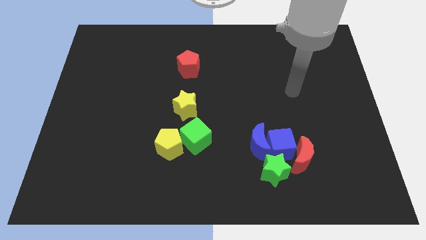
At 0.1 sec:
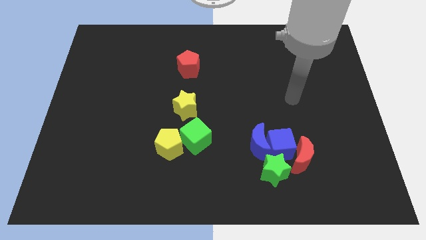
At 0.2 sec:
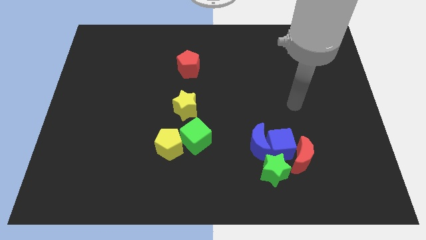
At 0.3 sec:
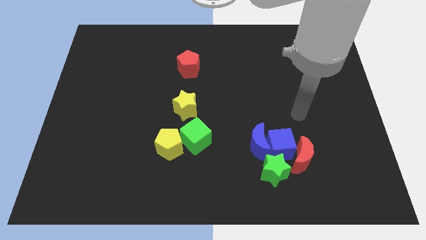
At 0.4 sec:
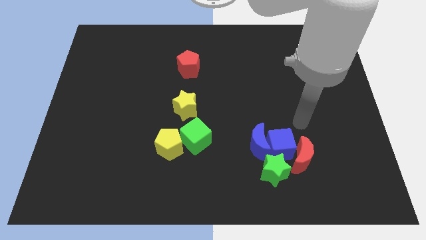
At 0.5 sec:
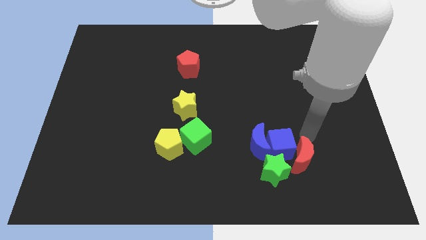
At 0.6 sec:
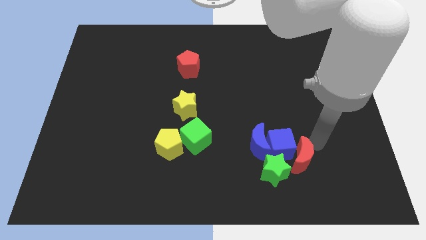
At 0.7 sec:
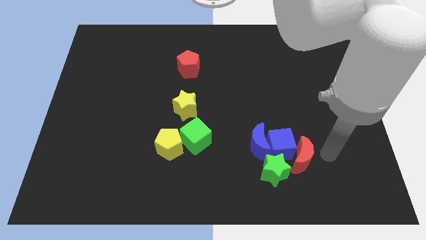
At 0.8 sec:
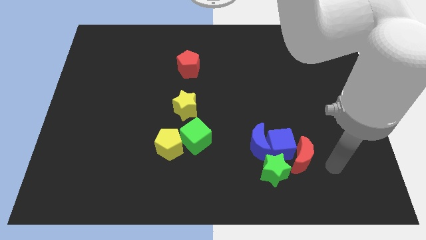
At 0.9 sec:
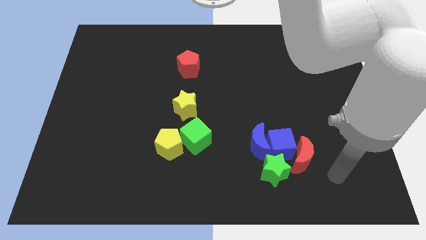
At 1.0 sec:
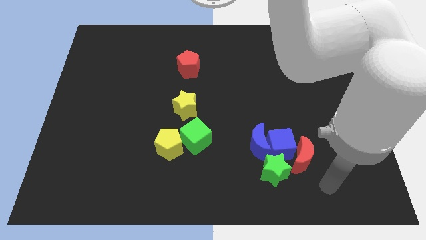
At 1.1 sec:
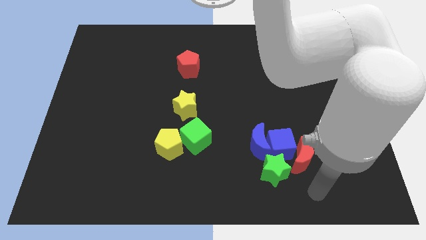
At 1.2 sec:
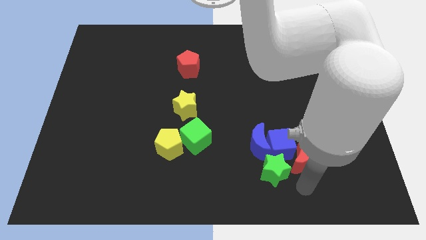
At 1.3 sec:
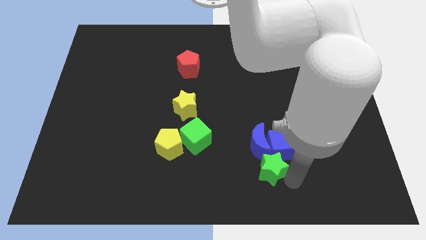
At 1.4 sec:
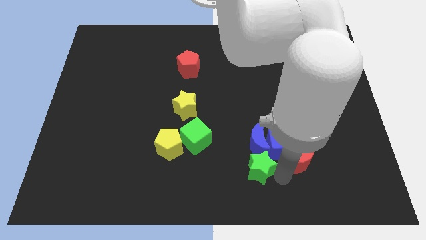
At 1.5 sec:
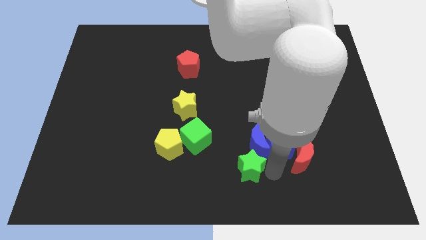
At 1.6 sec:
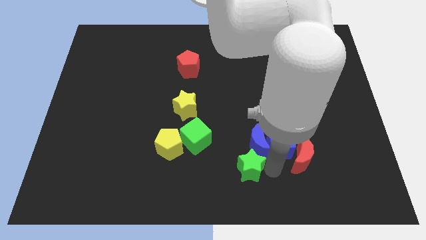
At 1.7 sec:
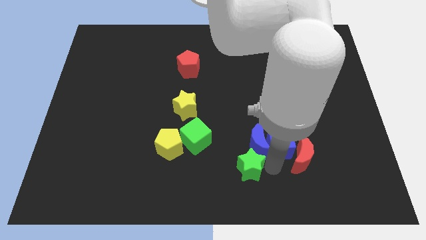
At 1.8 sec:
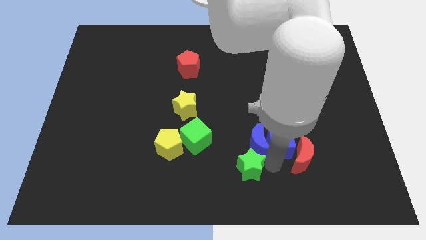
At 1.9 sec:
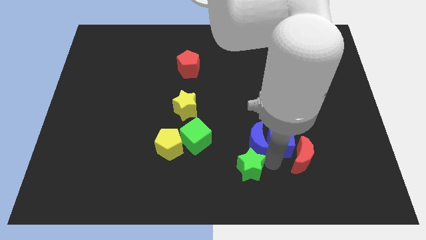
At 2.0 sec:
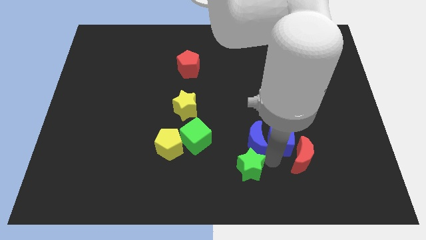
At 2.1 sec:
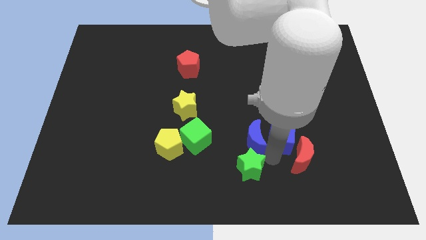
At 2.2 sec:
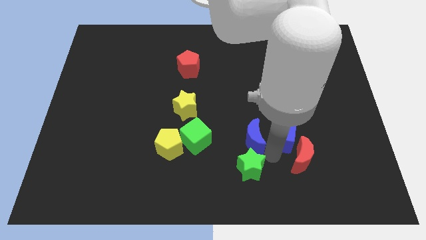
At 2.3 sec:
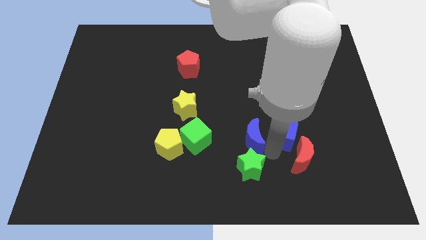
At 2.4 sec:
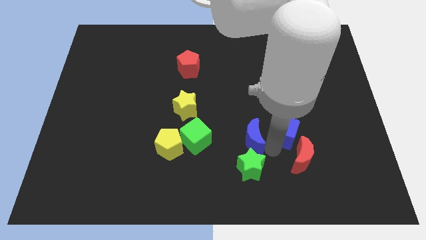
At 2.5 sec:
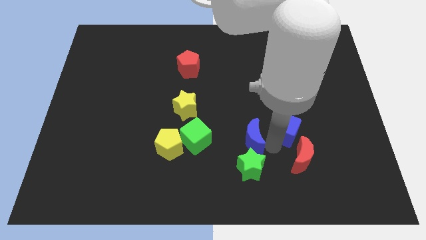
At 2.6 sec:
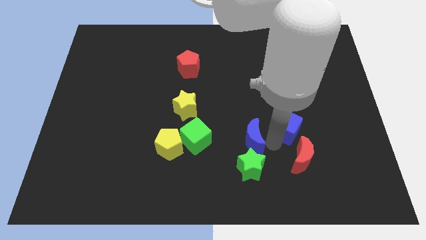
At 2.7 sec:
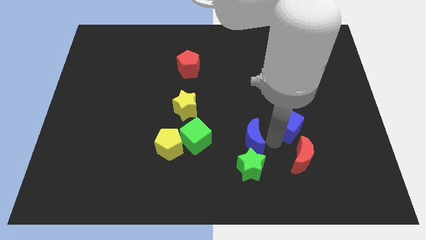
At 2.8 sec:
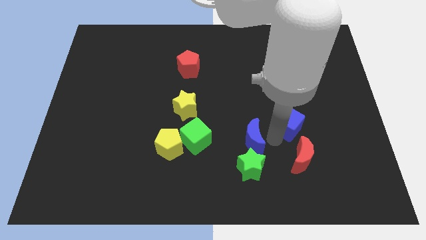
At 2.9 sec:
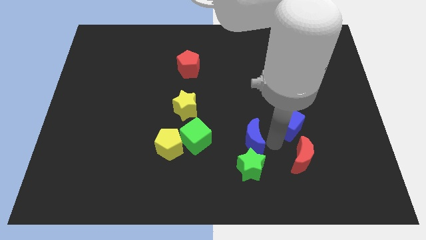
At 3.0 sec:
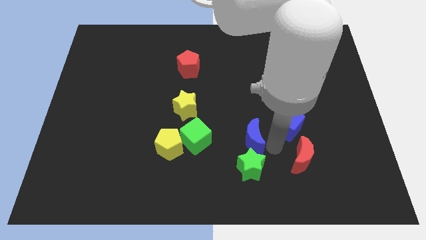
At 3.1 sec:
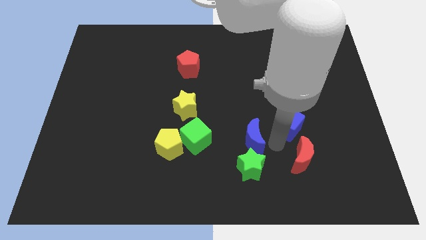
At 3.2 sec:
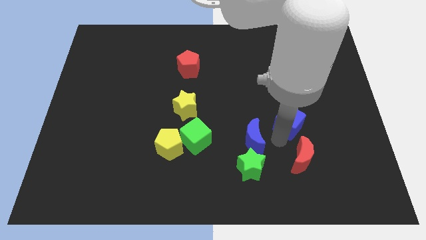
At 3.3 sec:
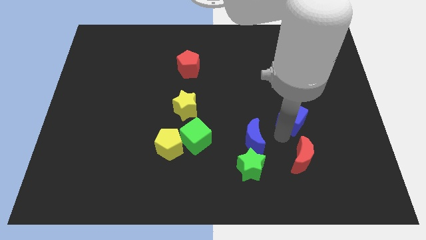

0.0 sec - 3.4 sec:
pull the blue cube apart from the blue moon, red moon, and green star

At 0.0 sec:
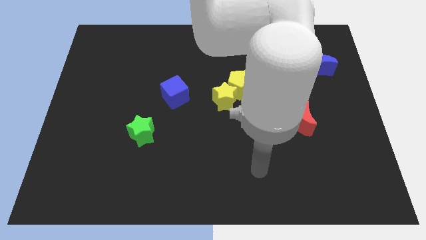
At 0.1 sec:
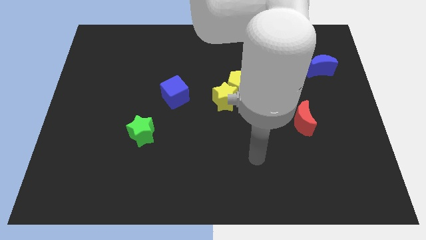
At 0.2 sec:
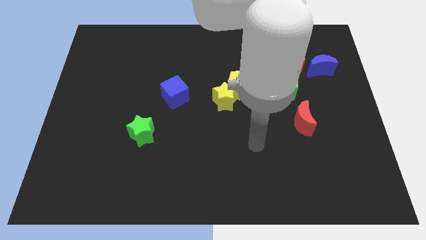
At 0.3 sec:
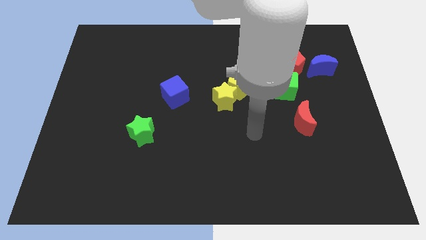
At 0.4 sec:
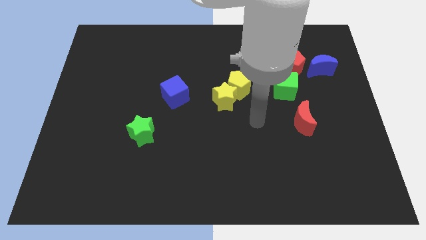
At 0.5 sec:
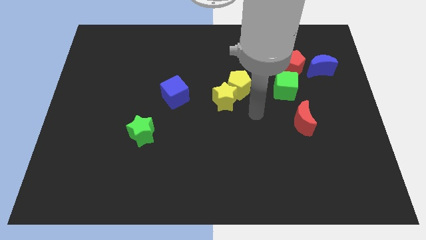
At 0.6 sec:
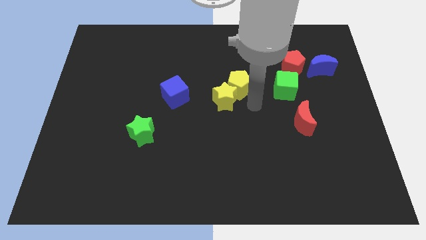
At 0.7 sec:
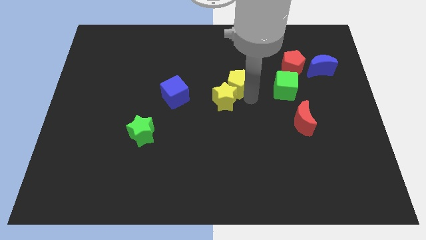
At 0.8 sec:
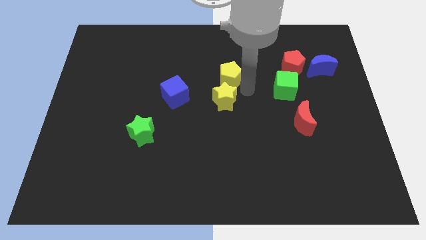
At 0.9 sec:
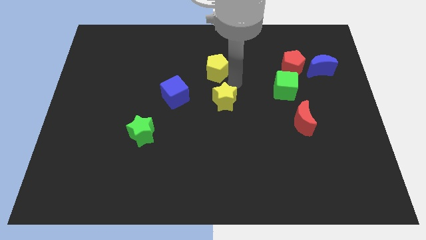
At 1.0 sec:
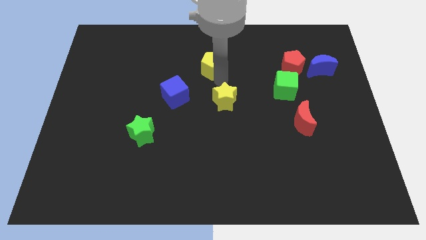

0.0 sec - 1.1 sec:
separate the yellow star from the yellow pentagon

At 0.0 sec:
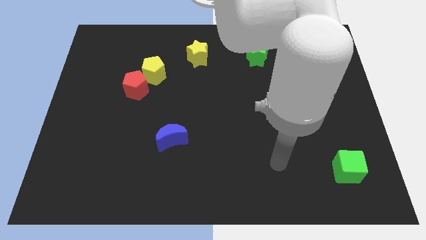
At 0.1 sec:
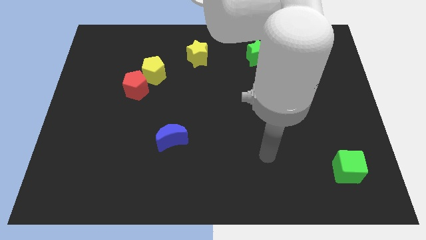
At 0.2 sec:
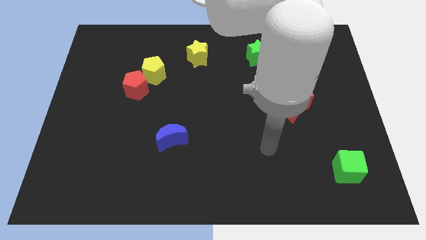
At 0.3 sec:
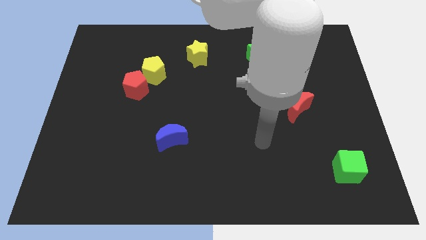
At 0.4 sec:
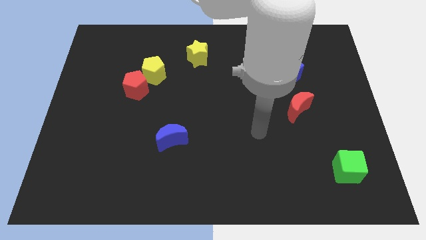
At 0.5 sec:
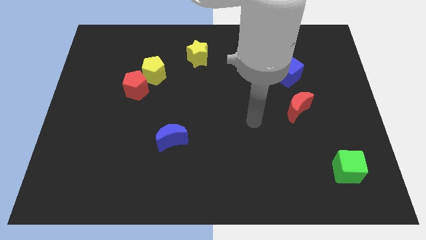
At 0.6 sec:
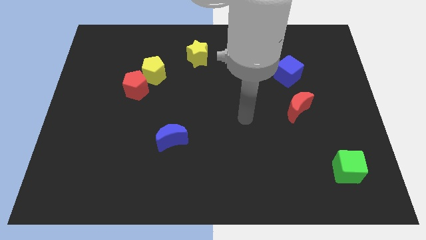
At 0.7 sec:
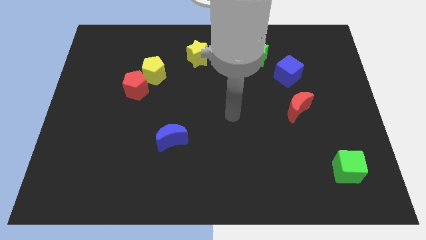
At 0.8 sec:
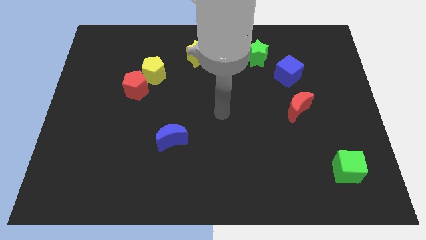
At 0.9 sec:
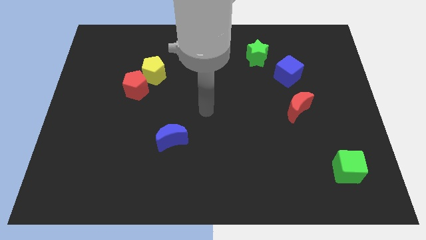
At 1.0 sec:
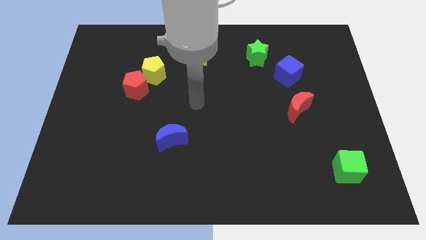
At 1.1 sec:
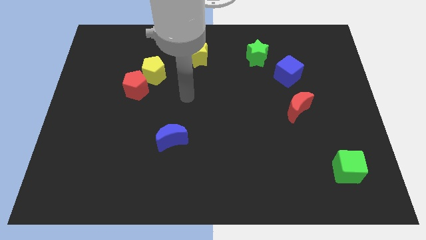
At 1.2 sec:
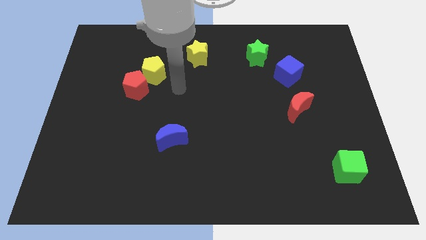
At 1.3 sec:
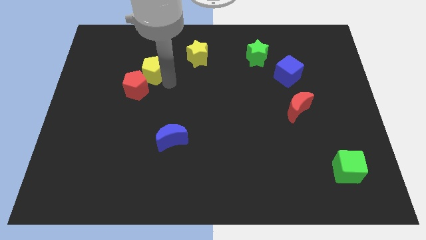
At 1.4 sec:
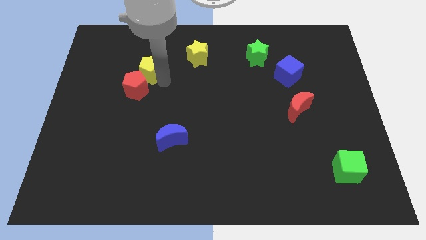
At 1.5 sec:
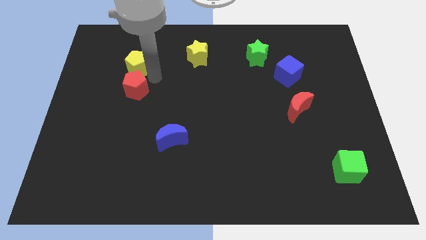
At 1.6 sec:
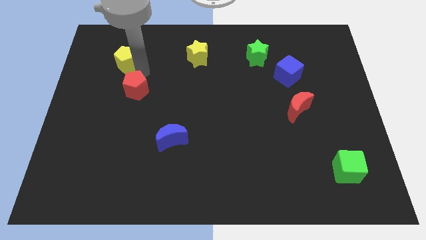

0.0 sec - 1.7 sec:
separate the red pentagon from the yellow pentagon

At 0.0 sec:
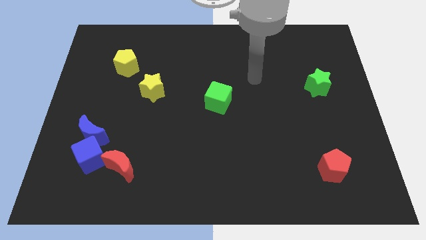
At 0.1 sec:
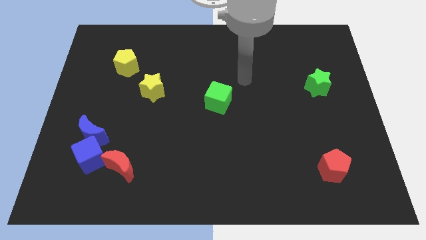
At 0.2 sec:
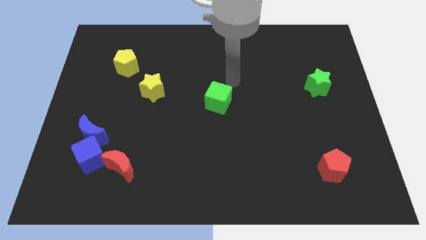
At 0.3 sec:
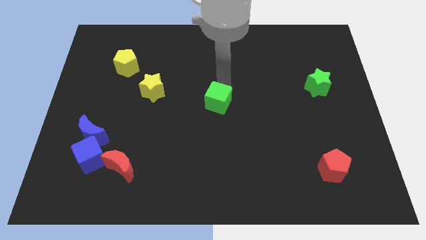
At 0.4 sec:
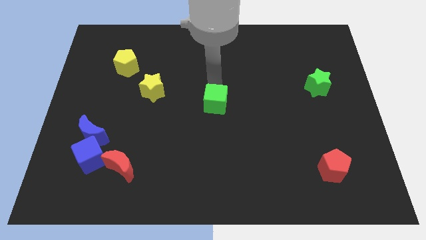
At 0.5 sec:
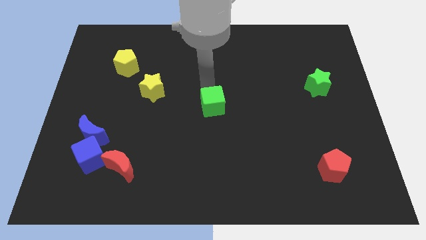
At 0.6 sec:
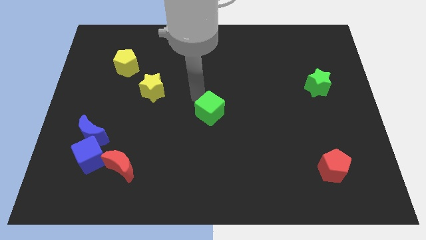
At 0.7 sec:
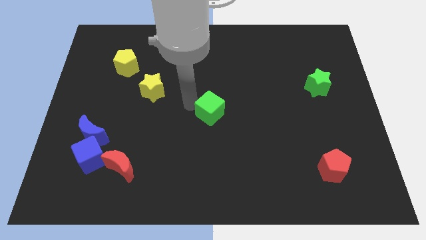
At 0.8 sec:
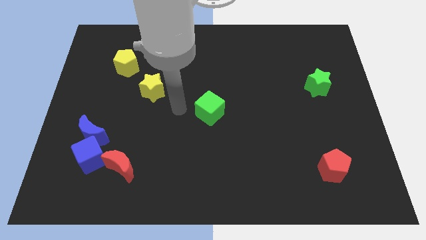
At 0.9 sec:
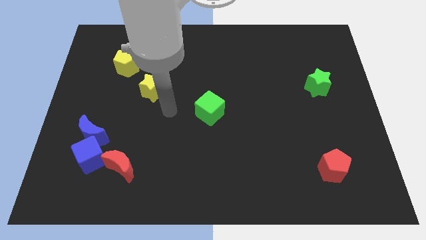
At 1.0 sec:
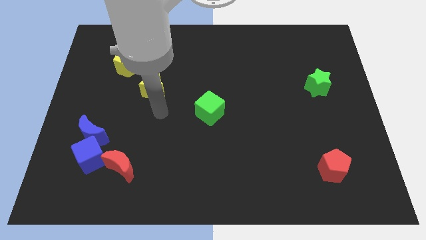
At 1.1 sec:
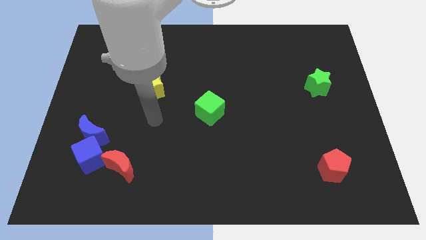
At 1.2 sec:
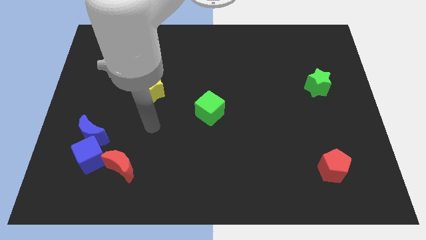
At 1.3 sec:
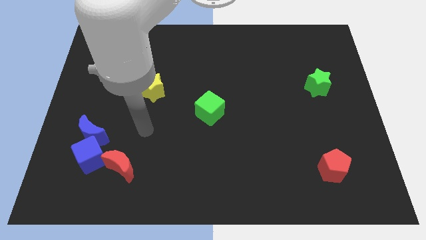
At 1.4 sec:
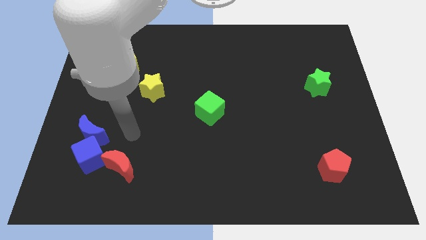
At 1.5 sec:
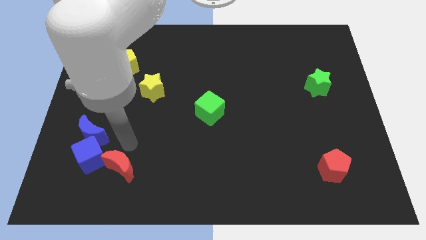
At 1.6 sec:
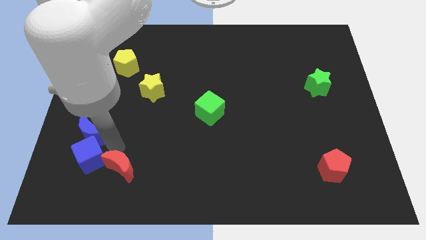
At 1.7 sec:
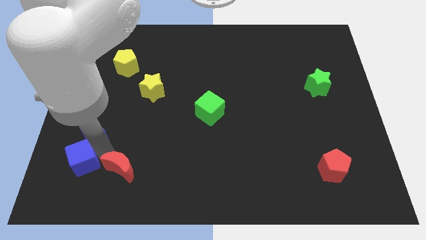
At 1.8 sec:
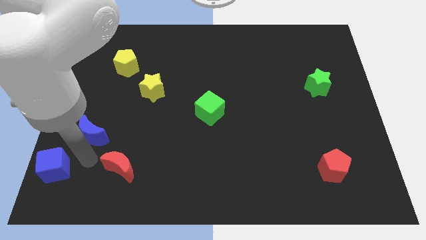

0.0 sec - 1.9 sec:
pull the blue moon apart from the blue cube

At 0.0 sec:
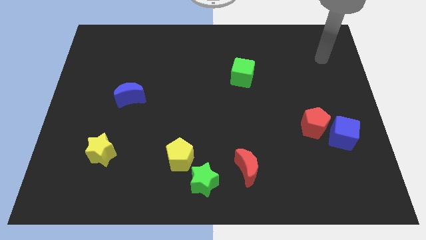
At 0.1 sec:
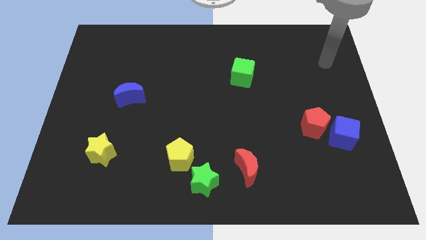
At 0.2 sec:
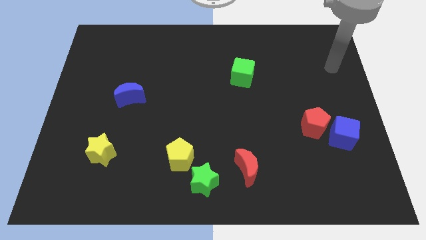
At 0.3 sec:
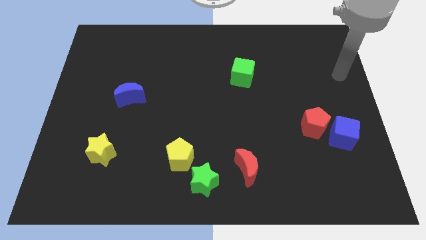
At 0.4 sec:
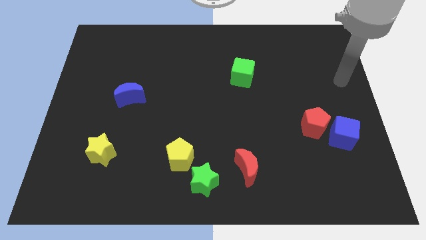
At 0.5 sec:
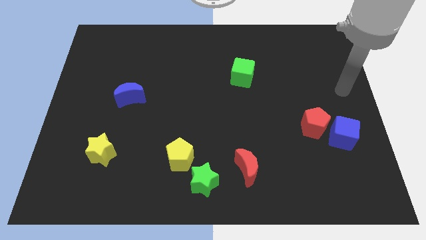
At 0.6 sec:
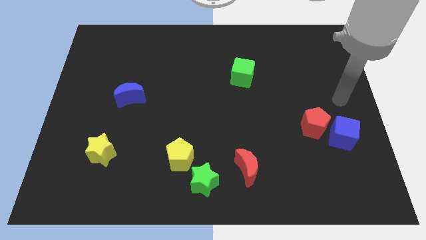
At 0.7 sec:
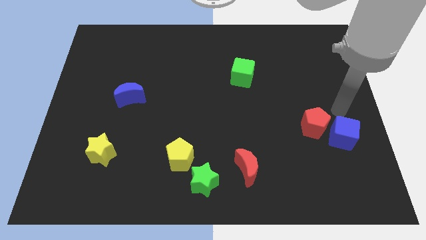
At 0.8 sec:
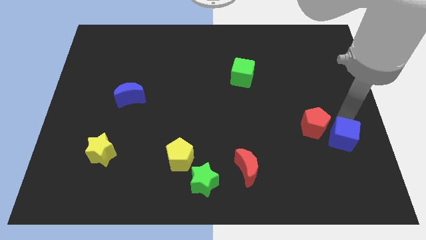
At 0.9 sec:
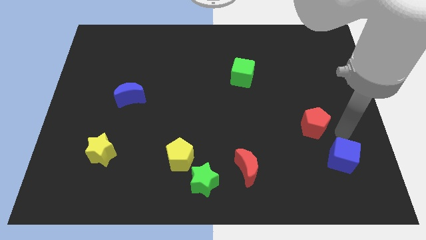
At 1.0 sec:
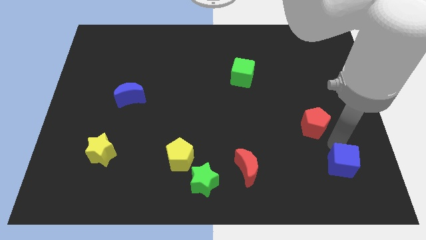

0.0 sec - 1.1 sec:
pull the red pentagon apart from the blue cube
